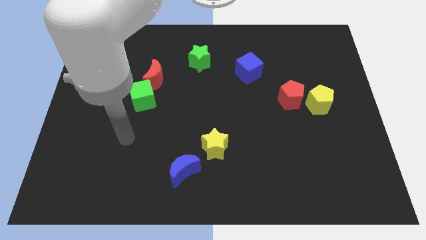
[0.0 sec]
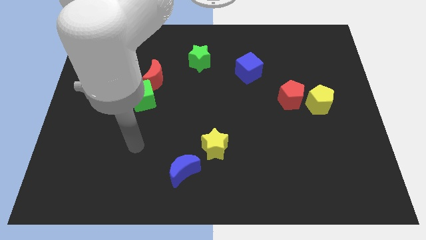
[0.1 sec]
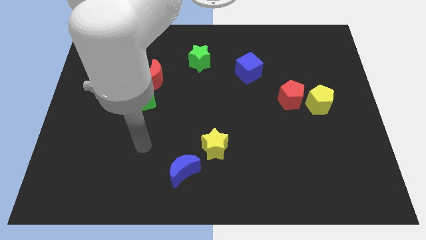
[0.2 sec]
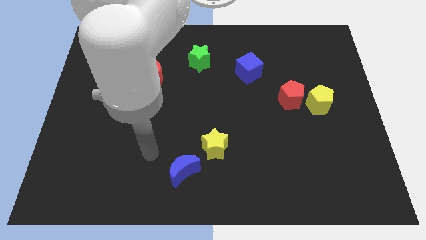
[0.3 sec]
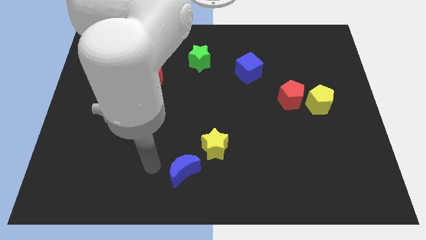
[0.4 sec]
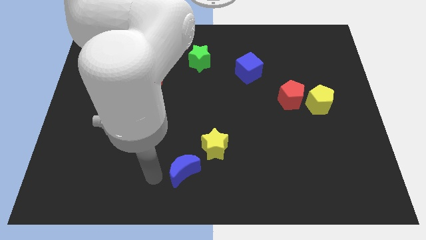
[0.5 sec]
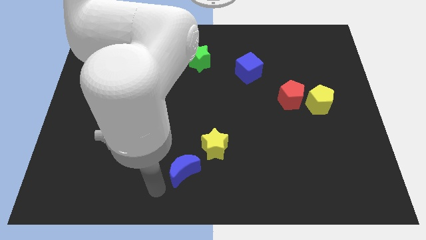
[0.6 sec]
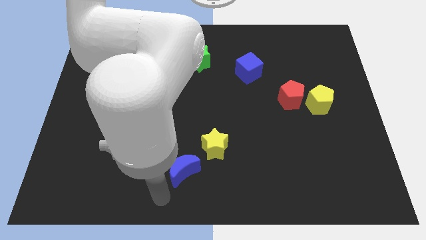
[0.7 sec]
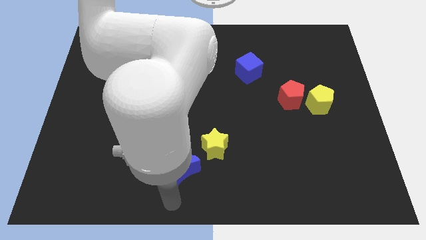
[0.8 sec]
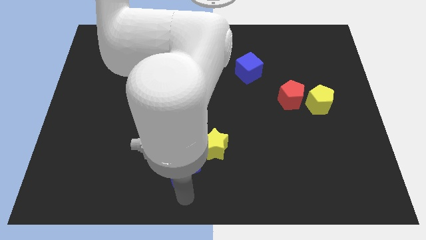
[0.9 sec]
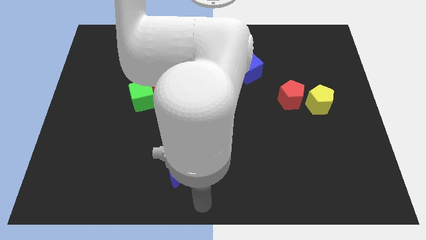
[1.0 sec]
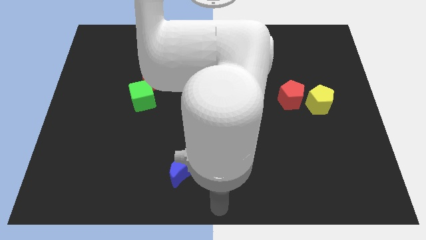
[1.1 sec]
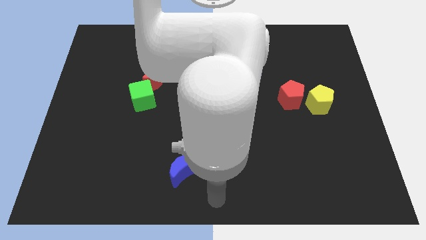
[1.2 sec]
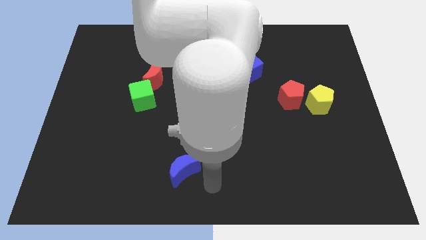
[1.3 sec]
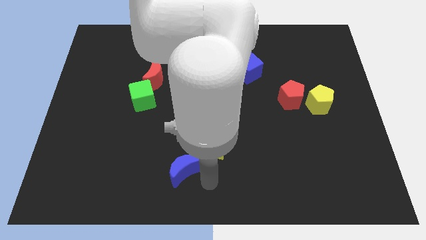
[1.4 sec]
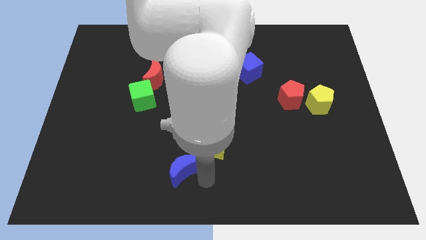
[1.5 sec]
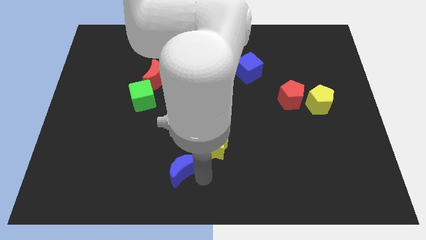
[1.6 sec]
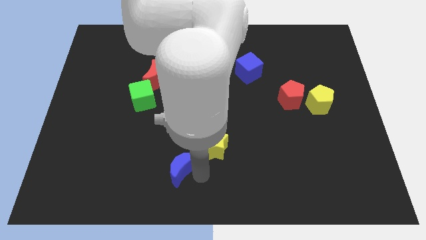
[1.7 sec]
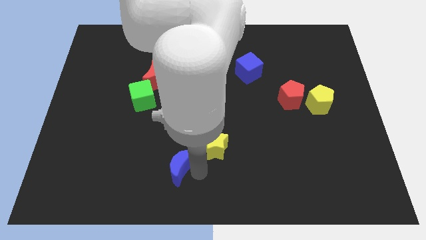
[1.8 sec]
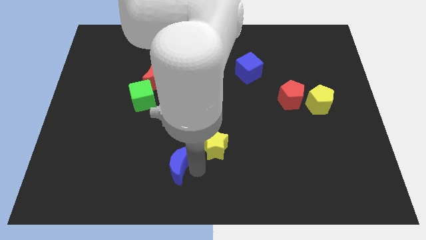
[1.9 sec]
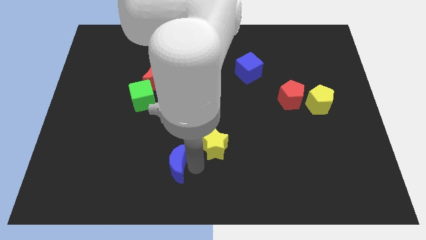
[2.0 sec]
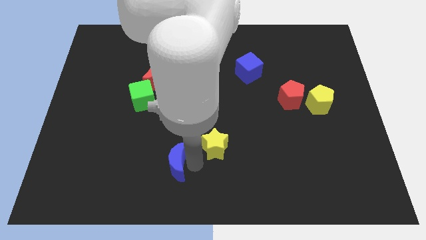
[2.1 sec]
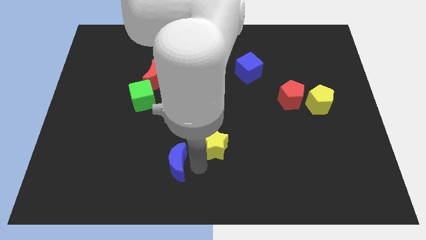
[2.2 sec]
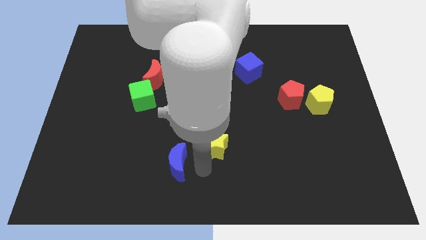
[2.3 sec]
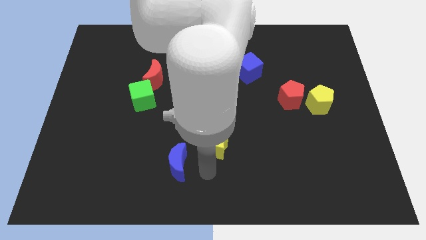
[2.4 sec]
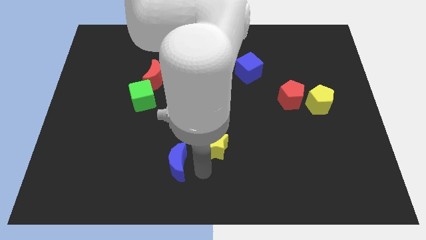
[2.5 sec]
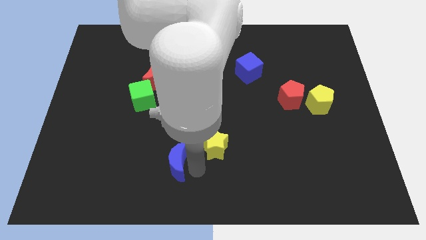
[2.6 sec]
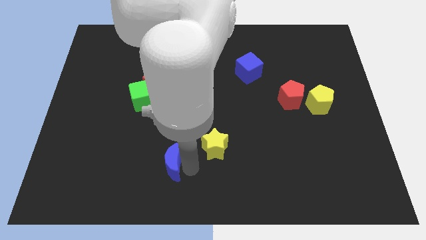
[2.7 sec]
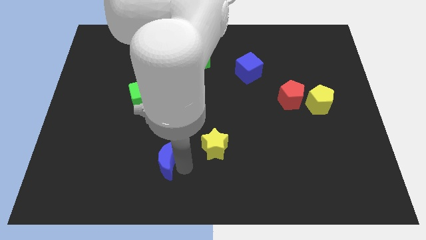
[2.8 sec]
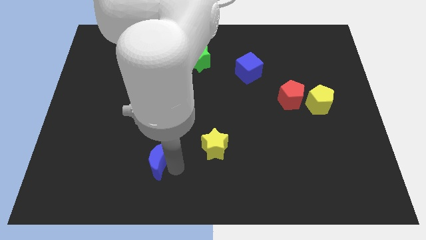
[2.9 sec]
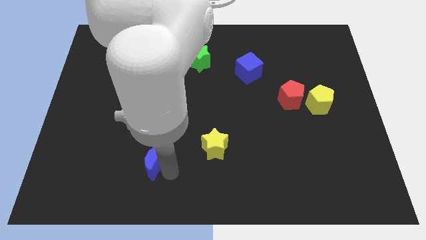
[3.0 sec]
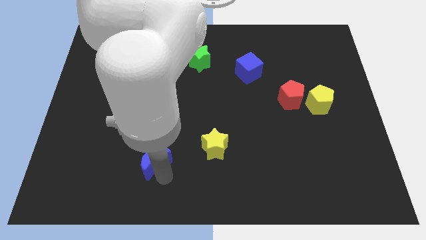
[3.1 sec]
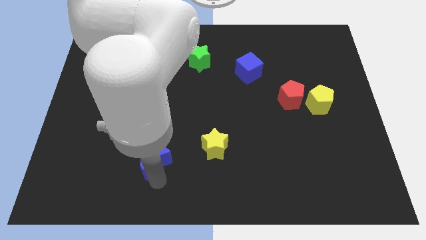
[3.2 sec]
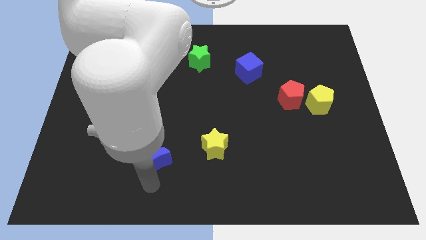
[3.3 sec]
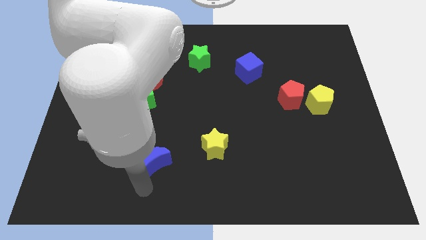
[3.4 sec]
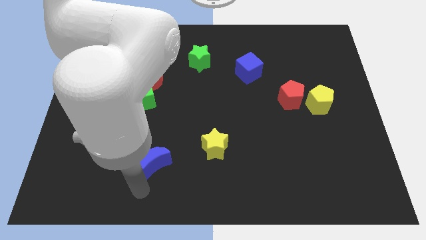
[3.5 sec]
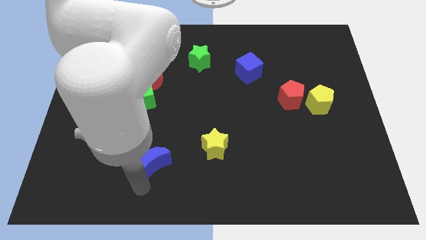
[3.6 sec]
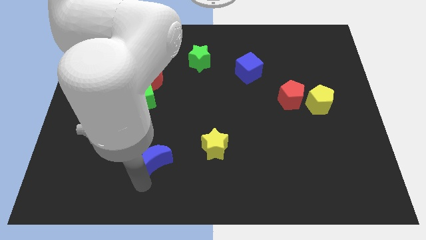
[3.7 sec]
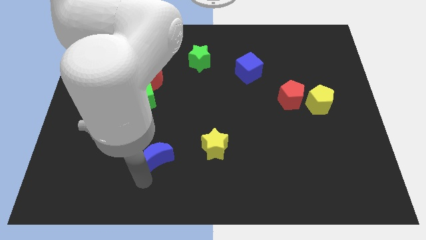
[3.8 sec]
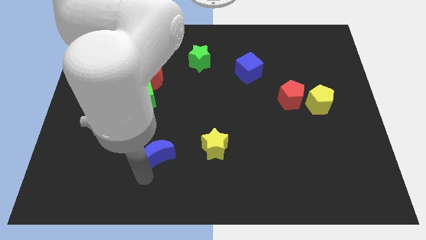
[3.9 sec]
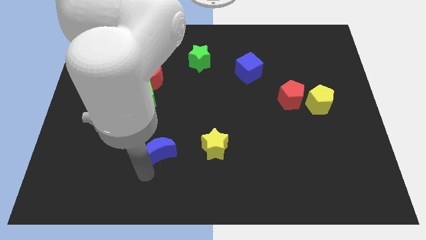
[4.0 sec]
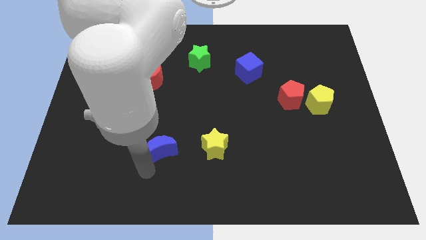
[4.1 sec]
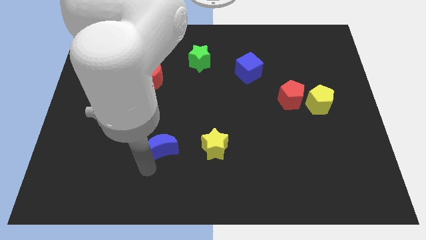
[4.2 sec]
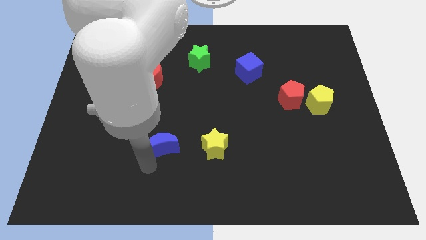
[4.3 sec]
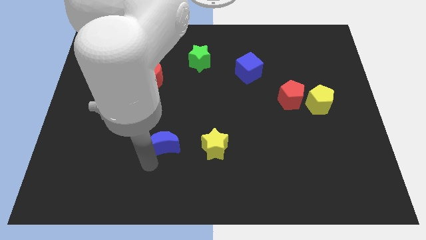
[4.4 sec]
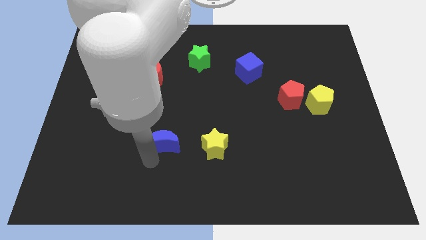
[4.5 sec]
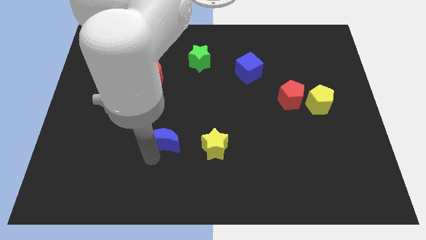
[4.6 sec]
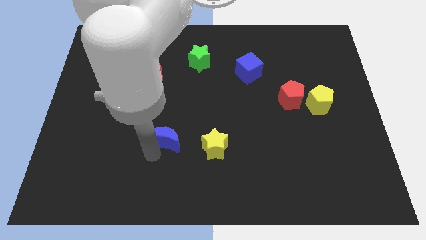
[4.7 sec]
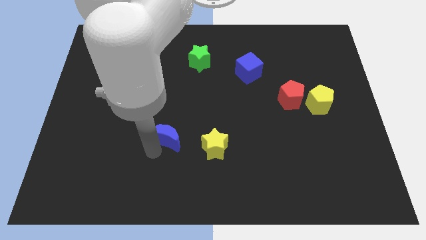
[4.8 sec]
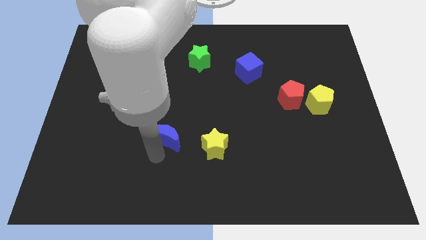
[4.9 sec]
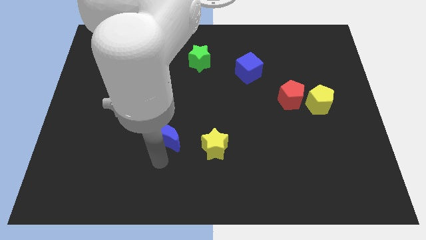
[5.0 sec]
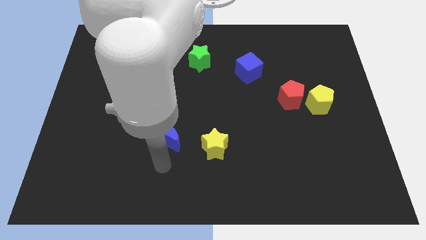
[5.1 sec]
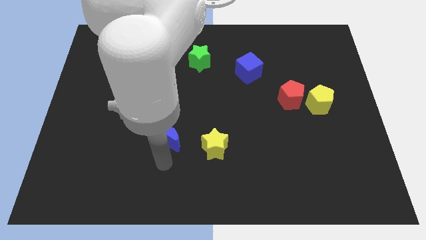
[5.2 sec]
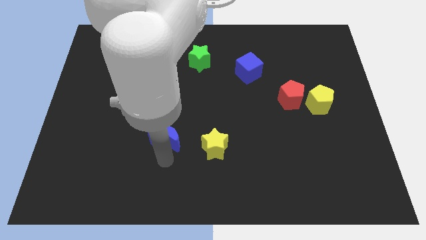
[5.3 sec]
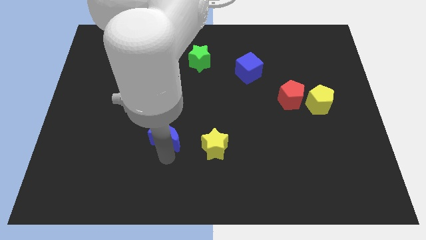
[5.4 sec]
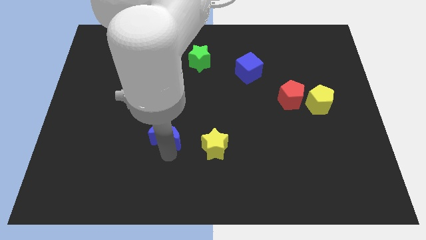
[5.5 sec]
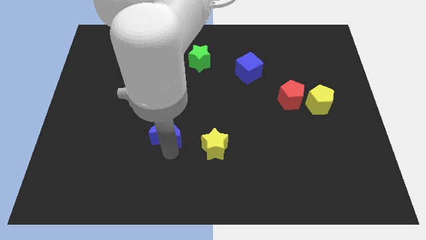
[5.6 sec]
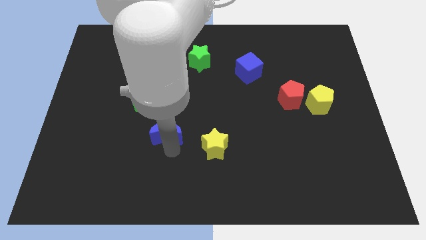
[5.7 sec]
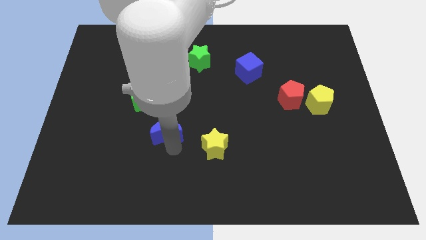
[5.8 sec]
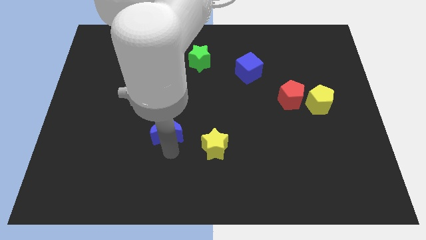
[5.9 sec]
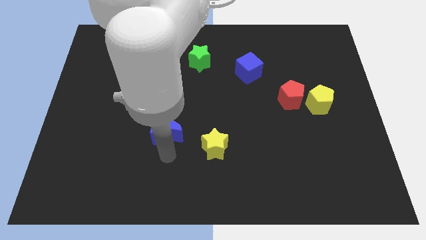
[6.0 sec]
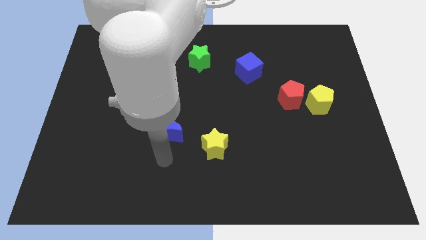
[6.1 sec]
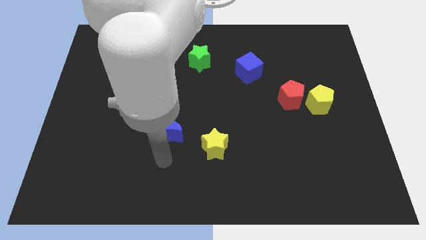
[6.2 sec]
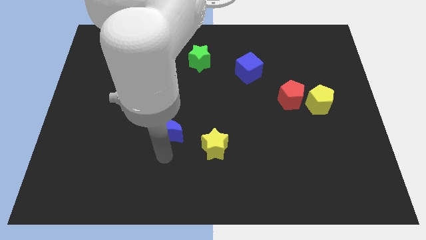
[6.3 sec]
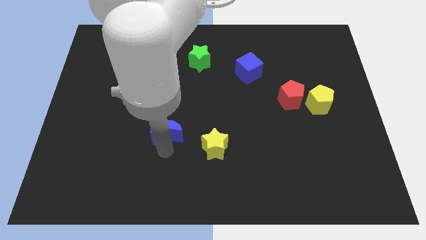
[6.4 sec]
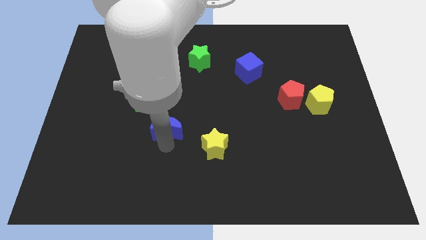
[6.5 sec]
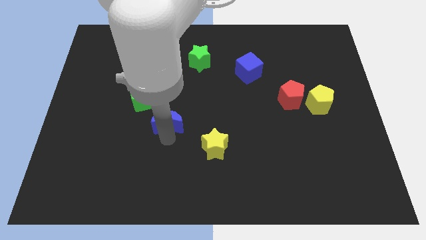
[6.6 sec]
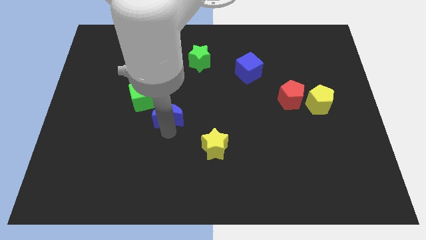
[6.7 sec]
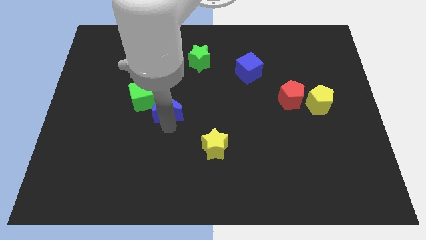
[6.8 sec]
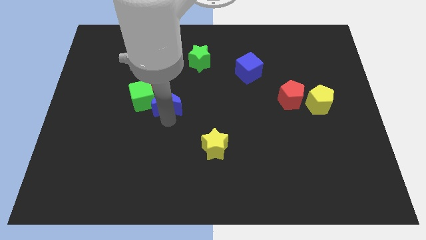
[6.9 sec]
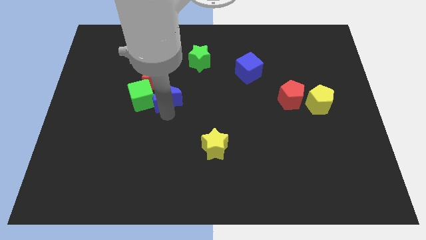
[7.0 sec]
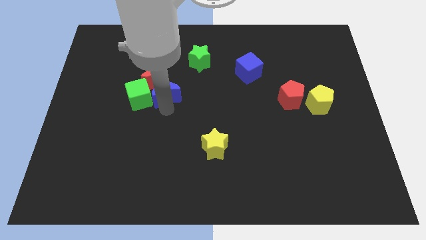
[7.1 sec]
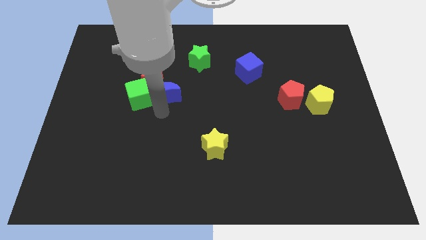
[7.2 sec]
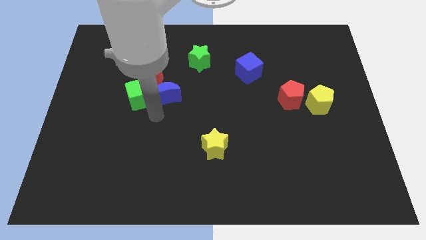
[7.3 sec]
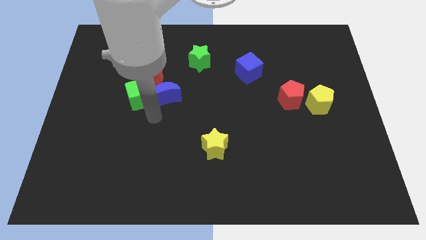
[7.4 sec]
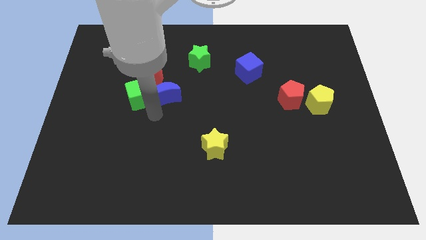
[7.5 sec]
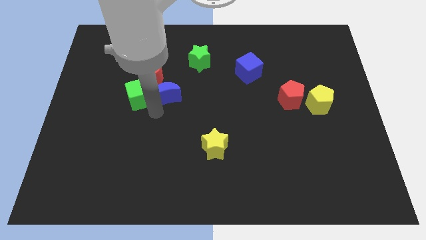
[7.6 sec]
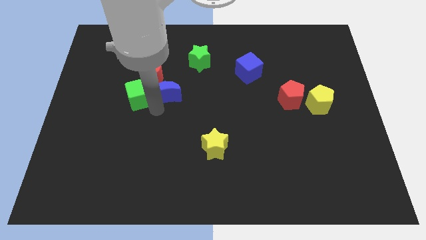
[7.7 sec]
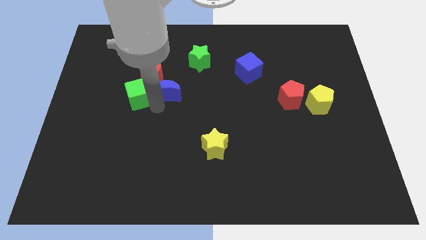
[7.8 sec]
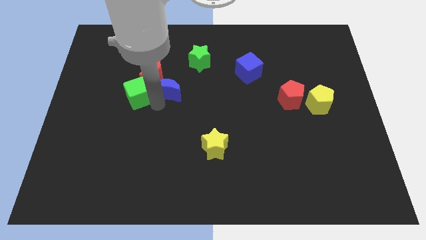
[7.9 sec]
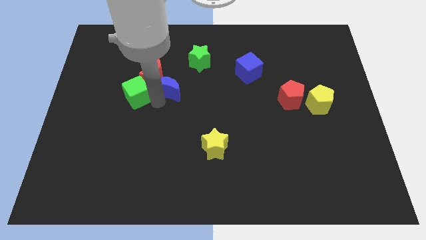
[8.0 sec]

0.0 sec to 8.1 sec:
put the blue moon to the bottom left side of the green star
